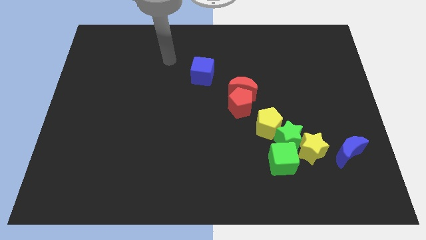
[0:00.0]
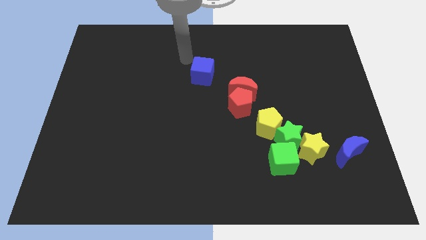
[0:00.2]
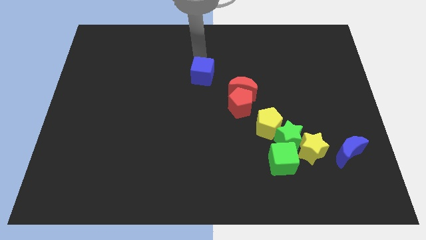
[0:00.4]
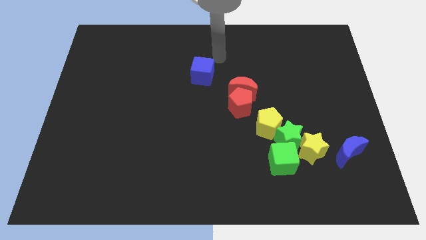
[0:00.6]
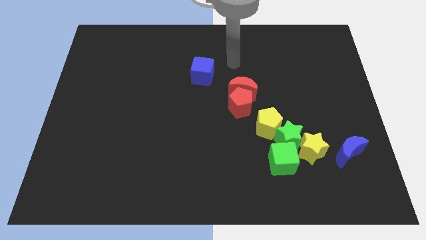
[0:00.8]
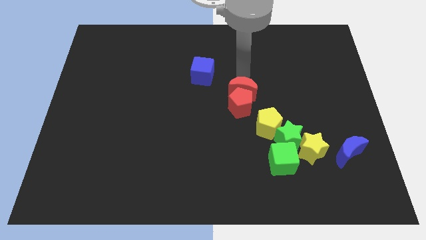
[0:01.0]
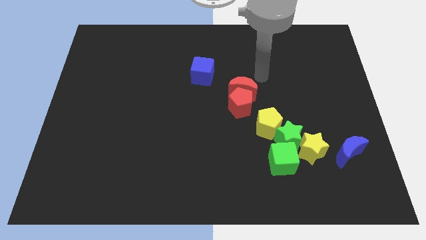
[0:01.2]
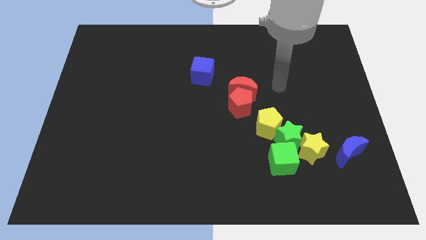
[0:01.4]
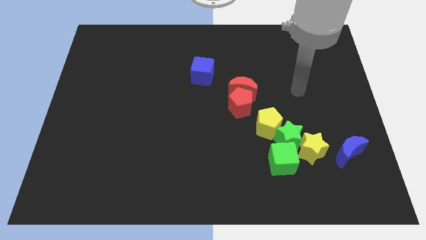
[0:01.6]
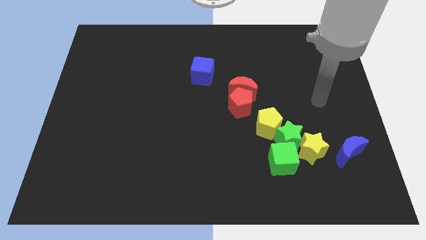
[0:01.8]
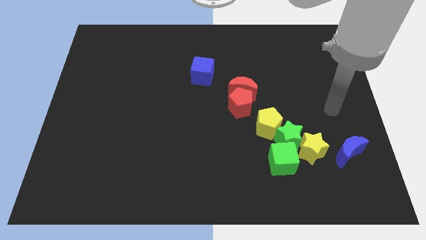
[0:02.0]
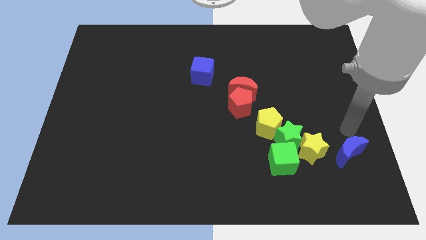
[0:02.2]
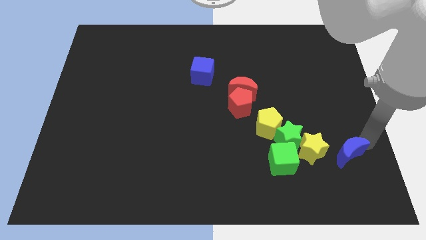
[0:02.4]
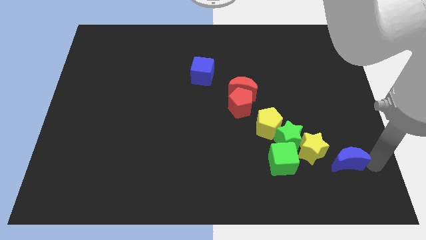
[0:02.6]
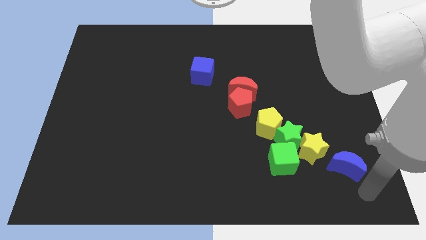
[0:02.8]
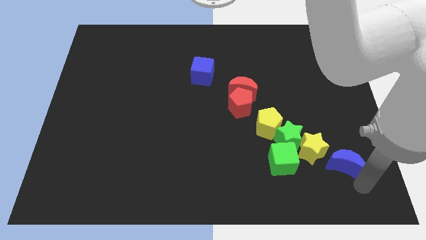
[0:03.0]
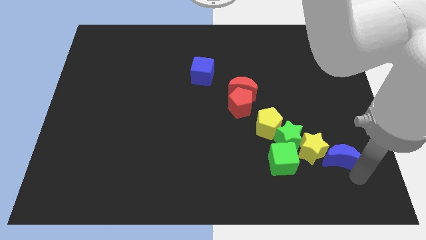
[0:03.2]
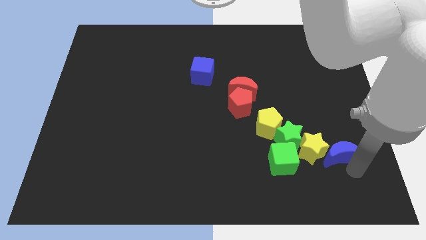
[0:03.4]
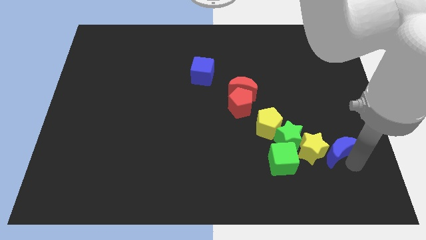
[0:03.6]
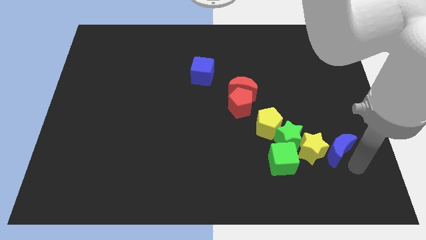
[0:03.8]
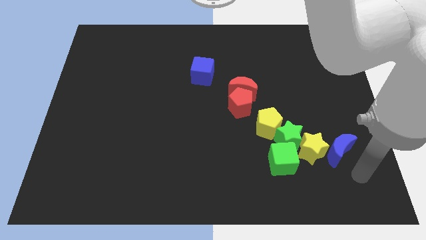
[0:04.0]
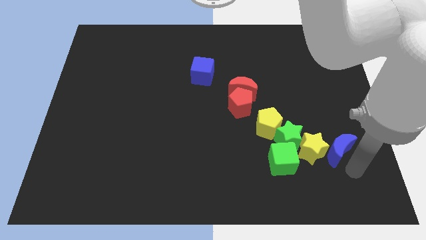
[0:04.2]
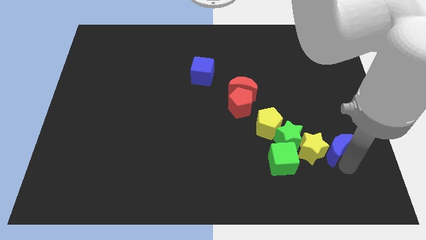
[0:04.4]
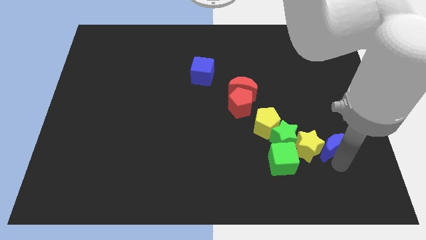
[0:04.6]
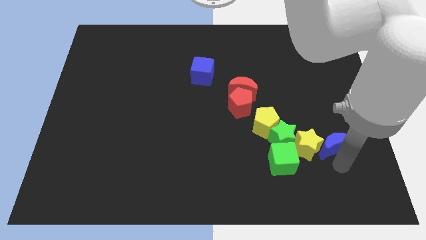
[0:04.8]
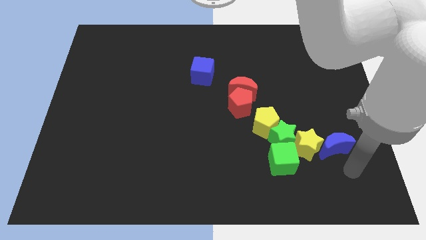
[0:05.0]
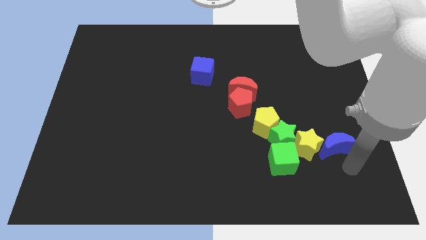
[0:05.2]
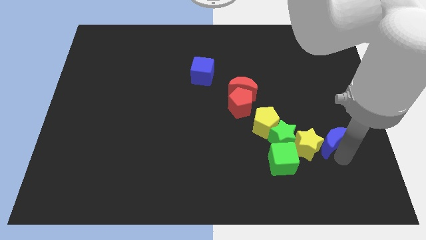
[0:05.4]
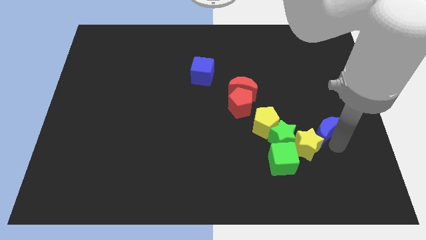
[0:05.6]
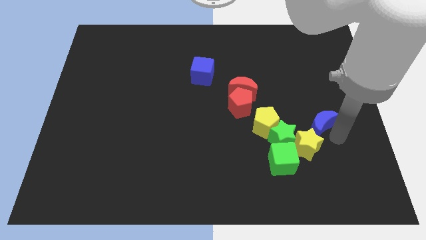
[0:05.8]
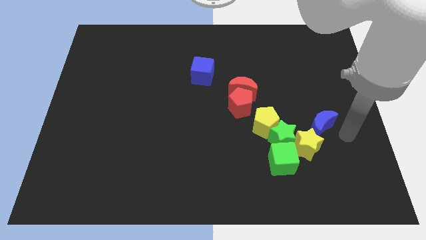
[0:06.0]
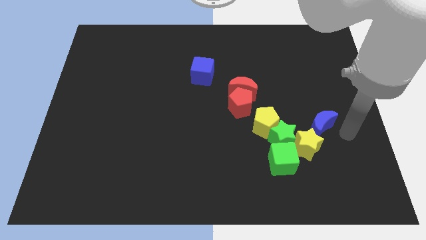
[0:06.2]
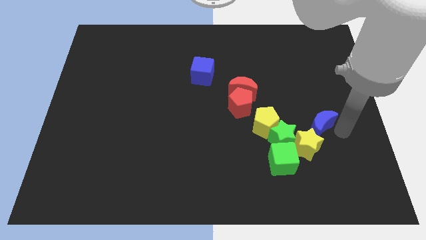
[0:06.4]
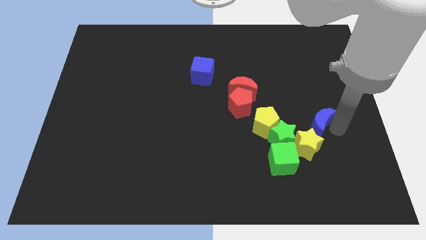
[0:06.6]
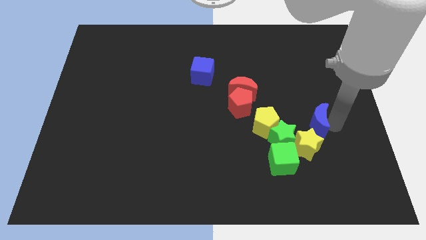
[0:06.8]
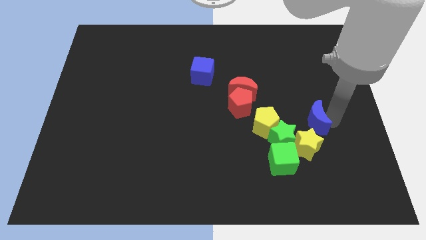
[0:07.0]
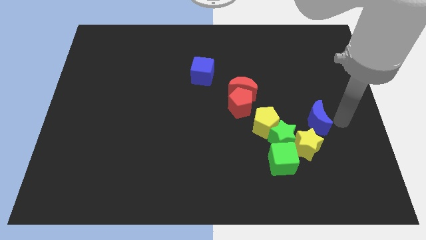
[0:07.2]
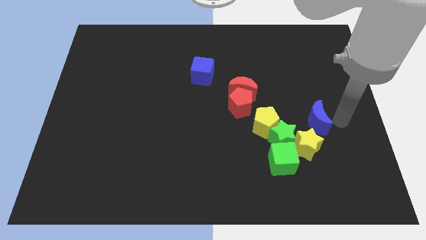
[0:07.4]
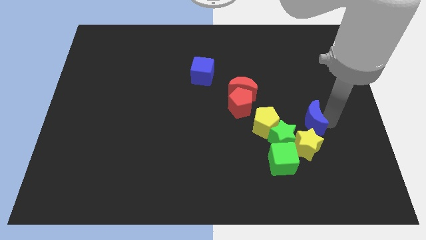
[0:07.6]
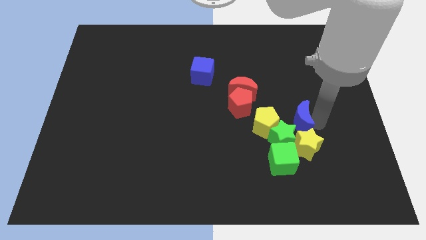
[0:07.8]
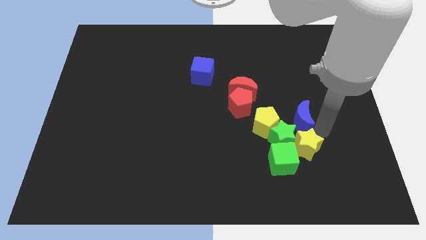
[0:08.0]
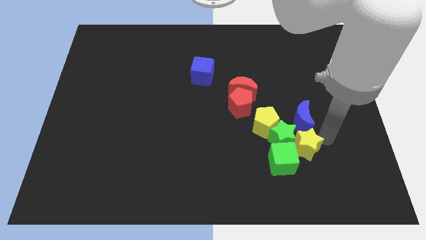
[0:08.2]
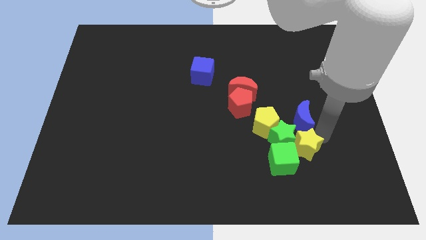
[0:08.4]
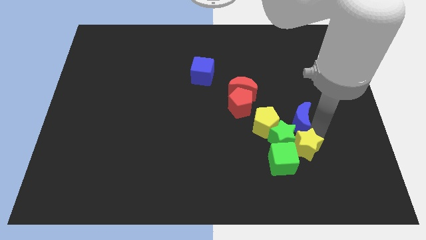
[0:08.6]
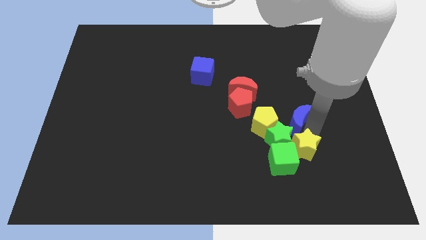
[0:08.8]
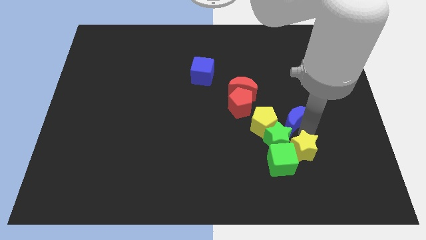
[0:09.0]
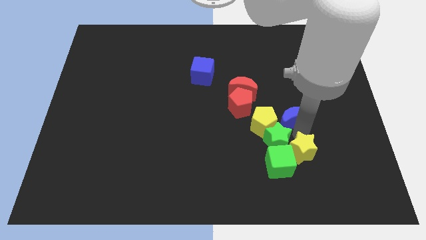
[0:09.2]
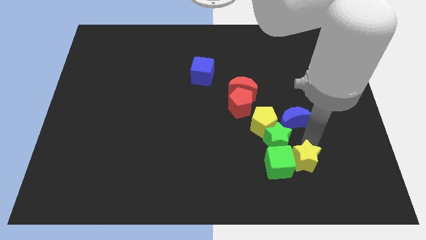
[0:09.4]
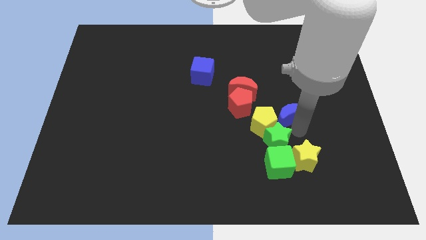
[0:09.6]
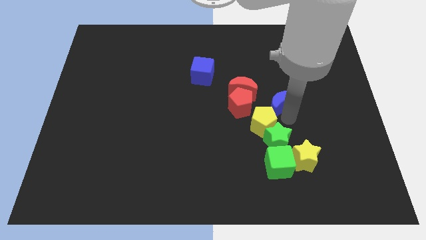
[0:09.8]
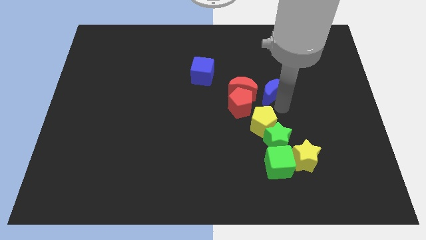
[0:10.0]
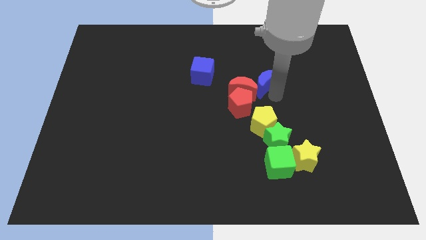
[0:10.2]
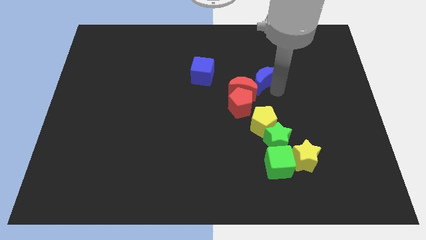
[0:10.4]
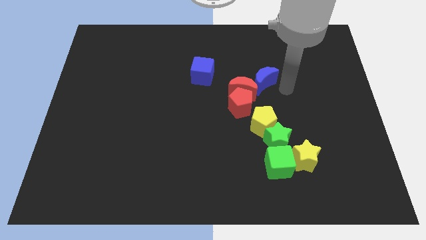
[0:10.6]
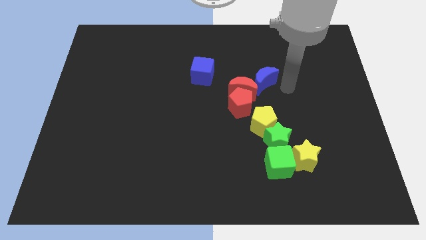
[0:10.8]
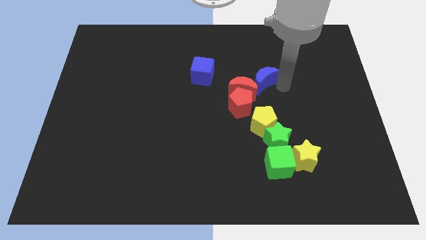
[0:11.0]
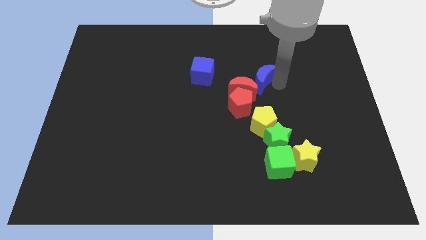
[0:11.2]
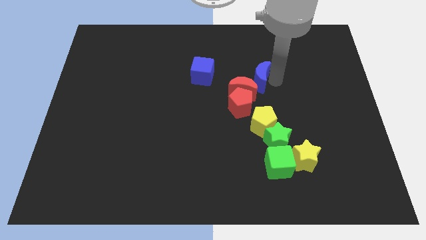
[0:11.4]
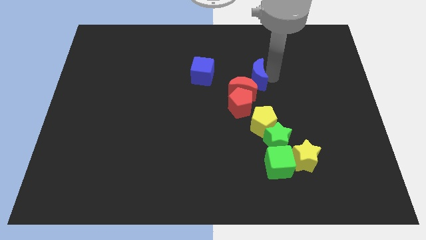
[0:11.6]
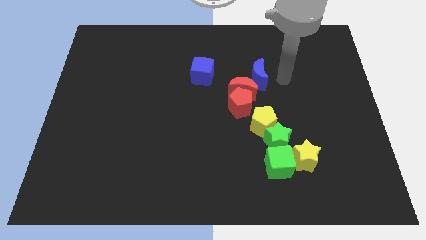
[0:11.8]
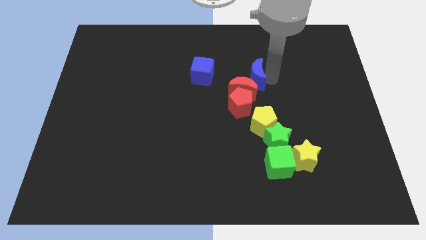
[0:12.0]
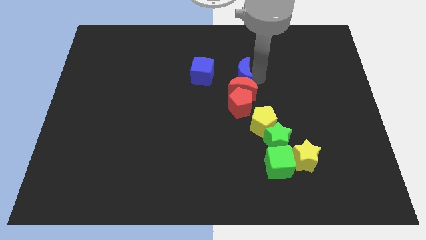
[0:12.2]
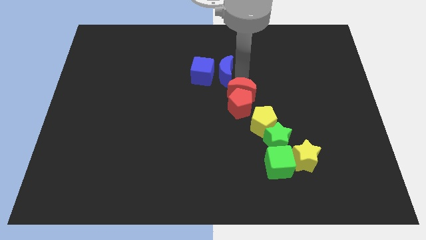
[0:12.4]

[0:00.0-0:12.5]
put the blue moon towards the blue cube

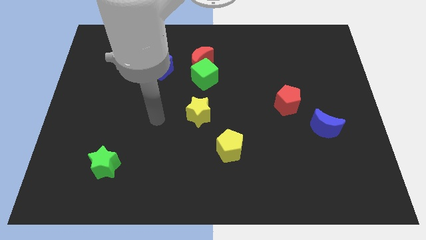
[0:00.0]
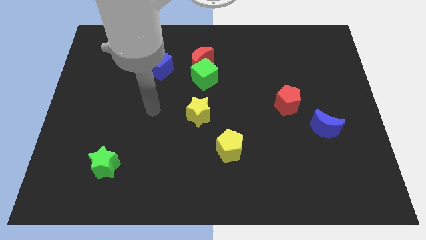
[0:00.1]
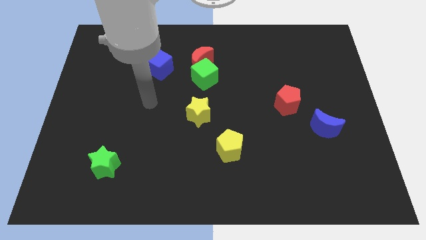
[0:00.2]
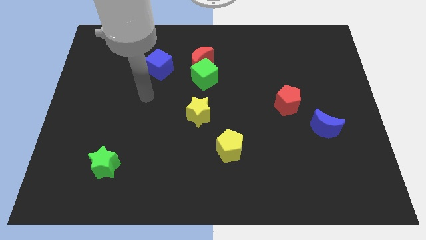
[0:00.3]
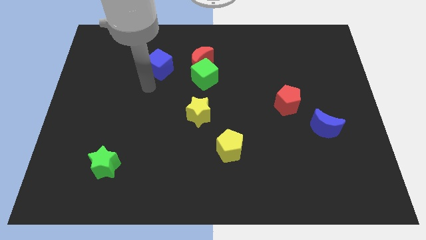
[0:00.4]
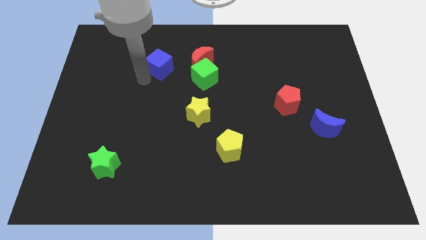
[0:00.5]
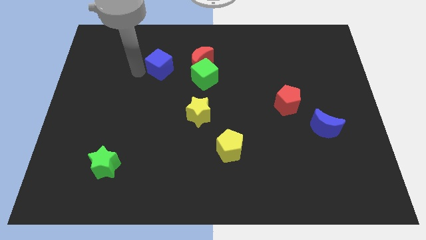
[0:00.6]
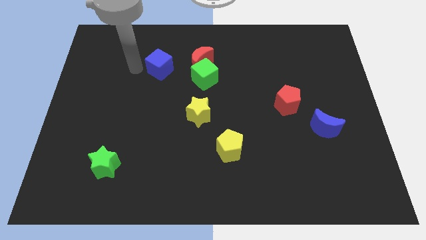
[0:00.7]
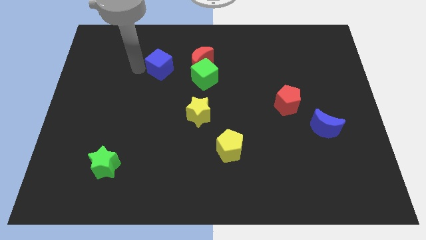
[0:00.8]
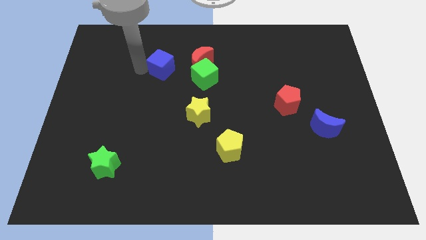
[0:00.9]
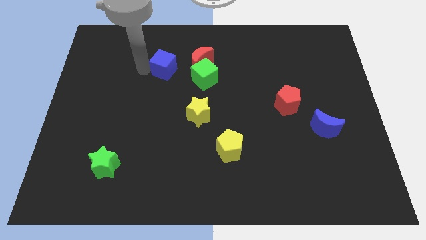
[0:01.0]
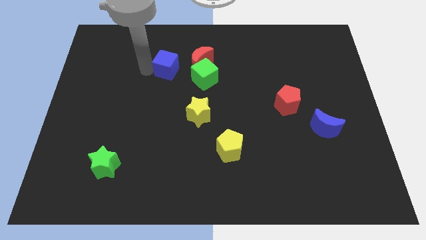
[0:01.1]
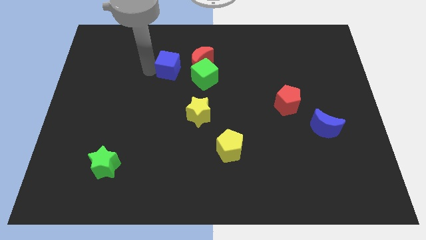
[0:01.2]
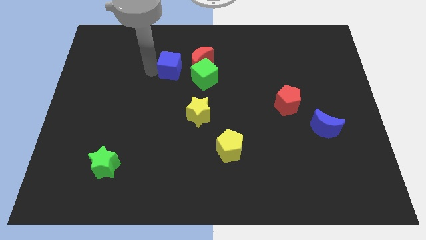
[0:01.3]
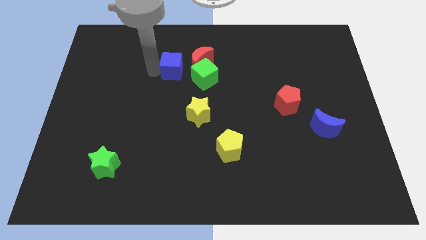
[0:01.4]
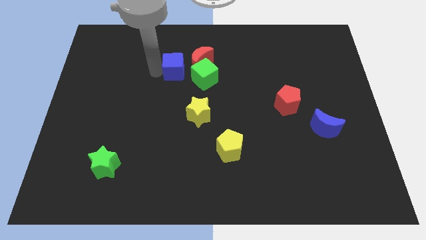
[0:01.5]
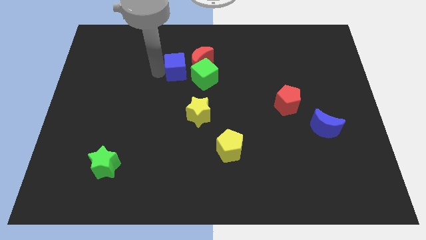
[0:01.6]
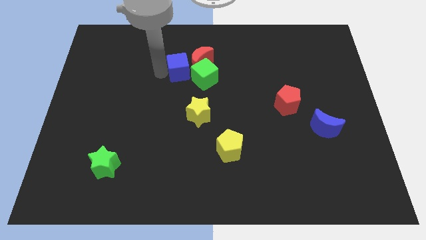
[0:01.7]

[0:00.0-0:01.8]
slide the blue cube close to the red moon
